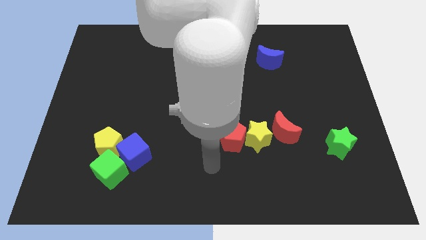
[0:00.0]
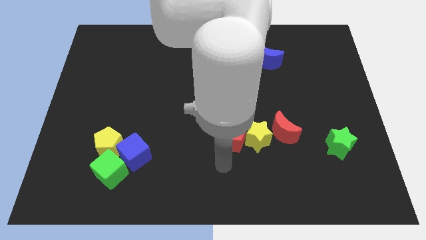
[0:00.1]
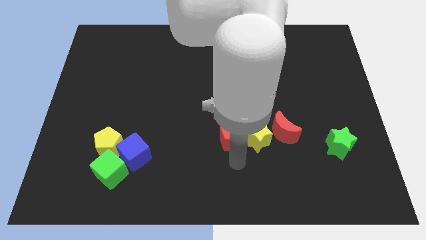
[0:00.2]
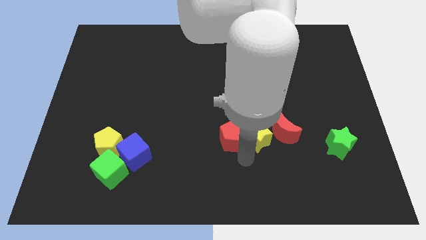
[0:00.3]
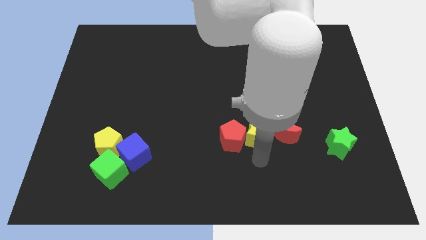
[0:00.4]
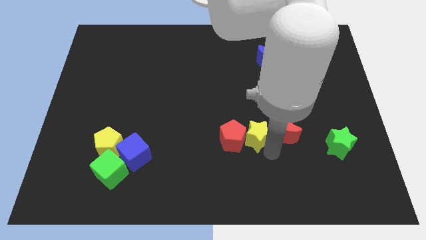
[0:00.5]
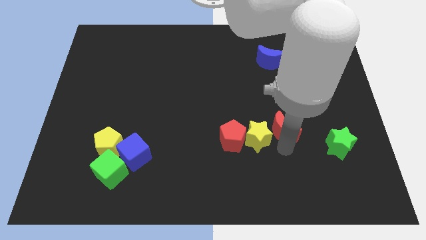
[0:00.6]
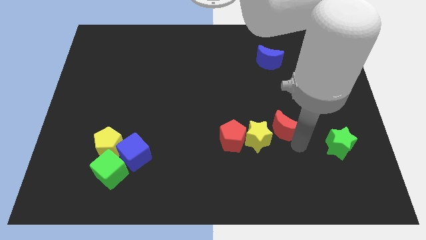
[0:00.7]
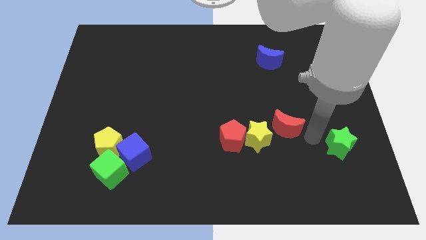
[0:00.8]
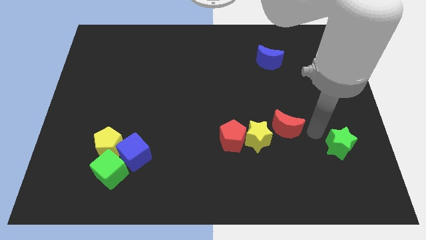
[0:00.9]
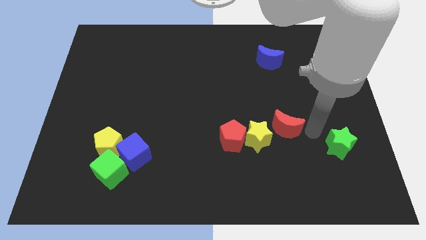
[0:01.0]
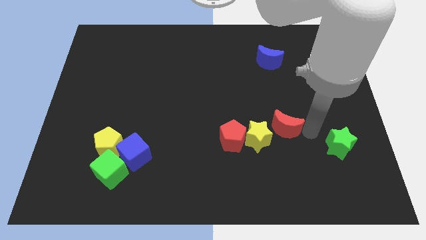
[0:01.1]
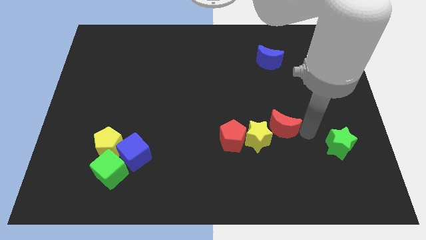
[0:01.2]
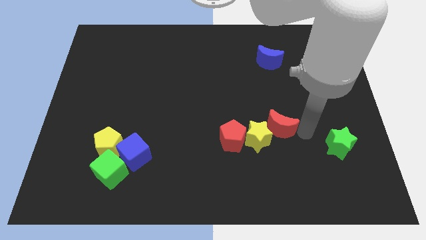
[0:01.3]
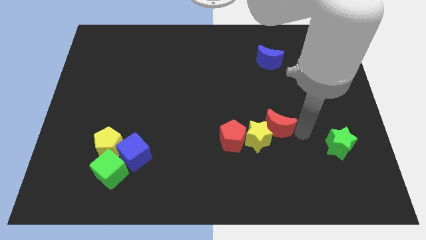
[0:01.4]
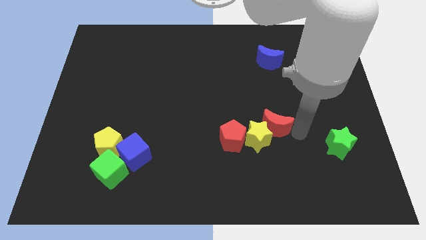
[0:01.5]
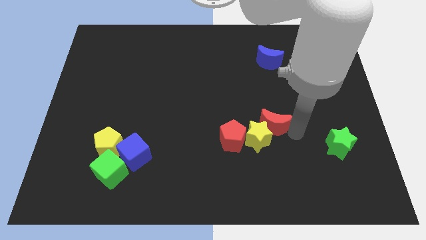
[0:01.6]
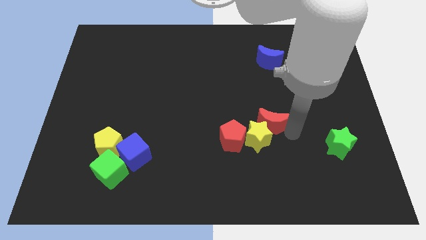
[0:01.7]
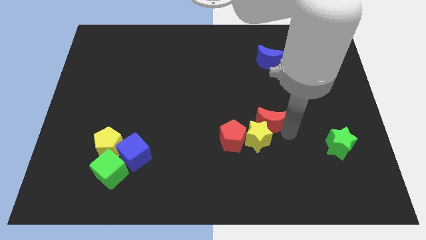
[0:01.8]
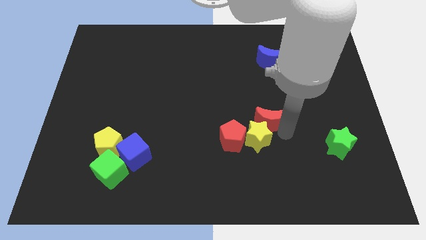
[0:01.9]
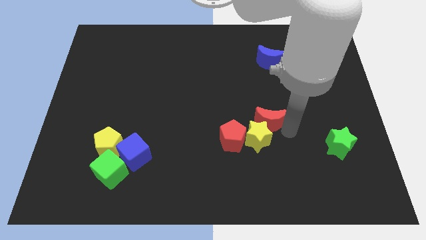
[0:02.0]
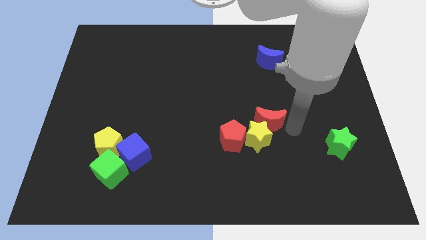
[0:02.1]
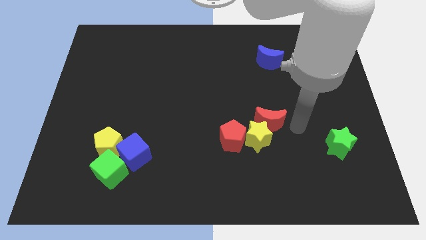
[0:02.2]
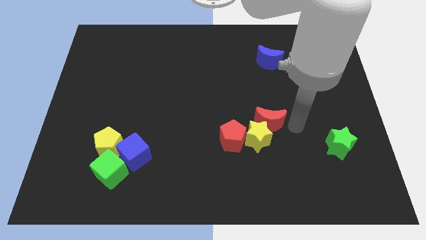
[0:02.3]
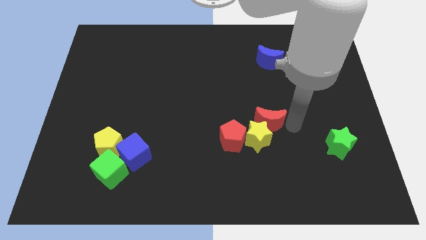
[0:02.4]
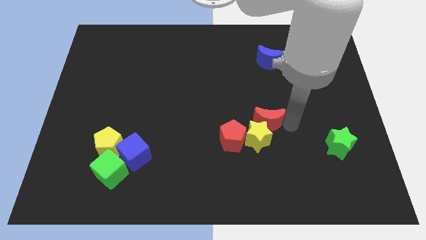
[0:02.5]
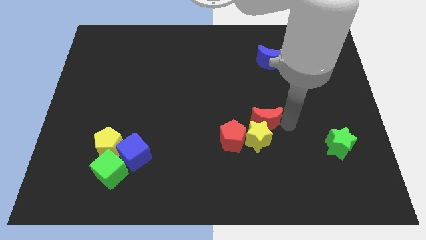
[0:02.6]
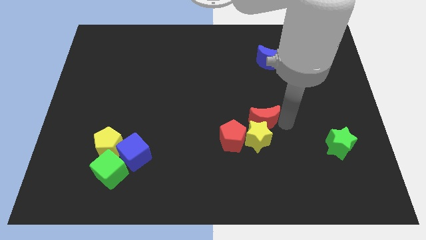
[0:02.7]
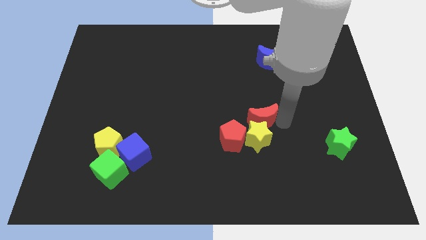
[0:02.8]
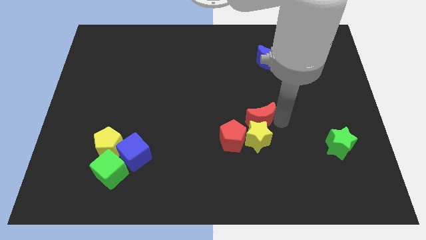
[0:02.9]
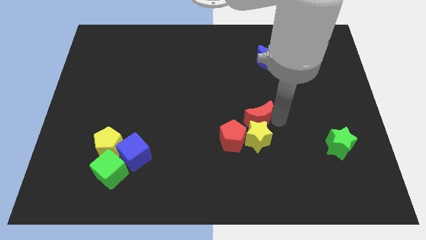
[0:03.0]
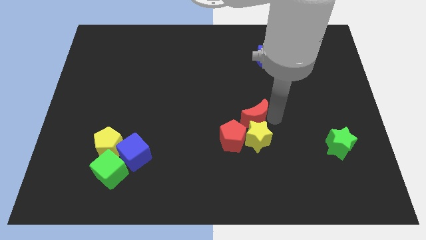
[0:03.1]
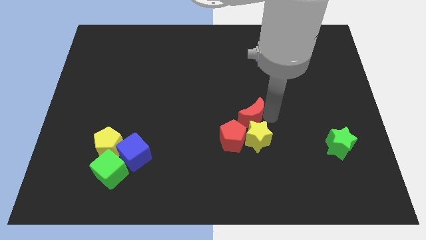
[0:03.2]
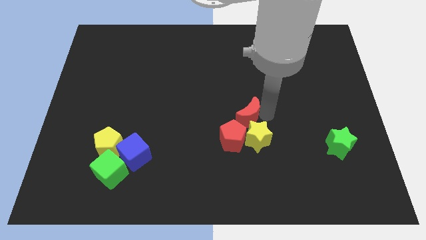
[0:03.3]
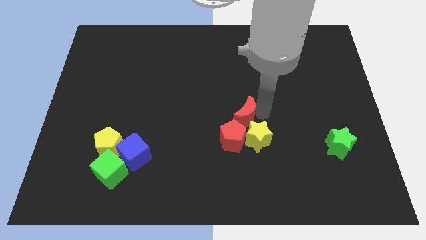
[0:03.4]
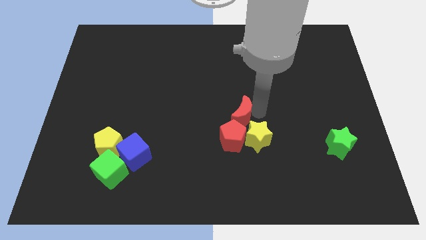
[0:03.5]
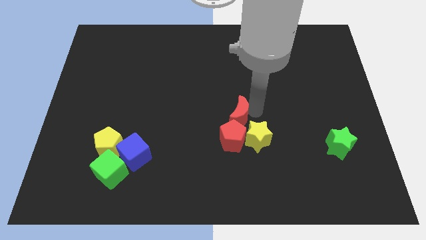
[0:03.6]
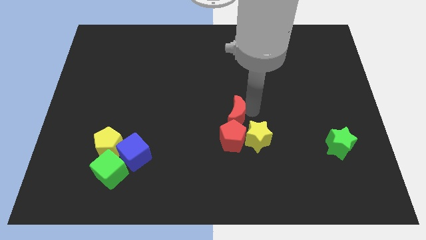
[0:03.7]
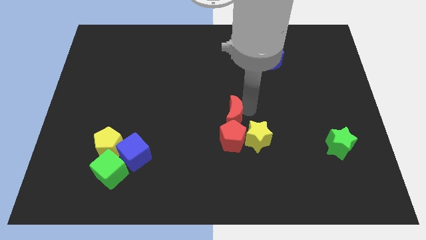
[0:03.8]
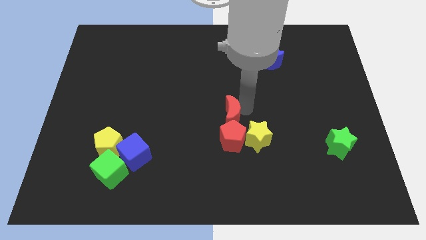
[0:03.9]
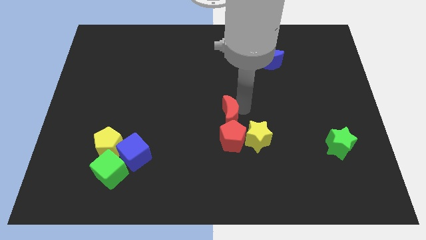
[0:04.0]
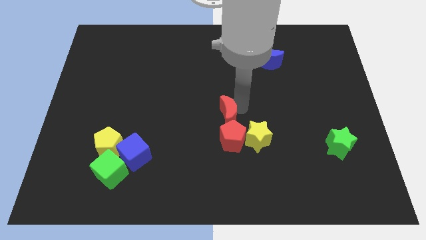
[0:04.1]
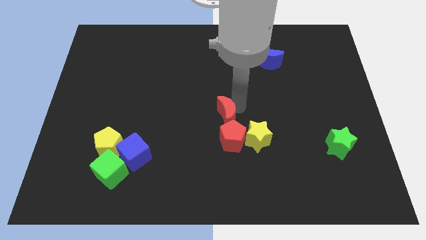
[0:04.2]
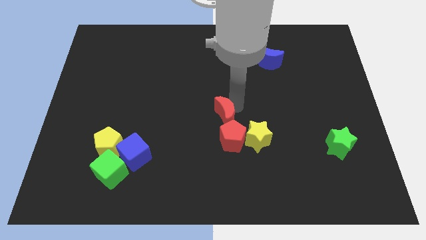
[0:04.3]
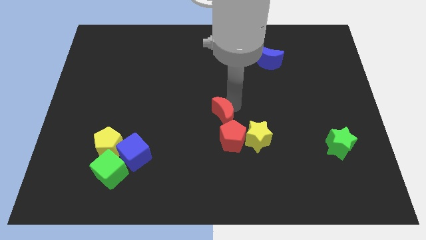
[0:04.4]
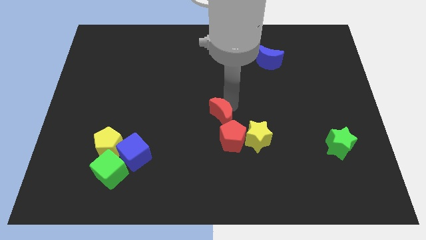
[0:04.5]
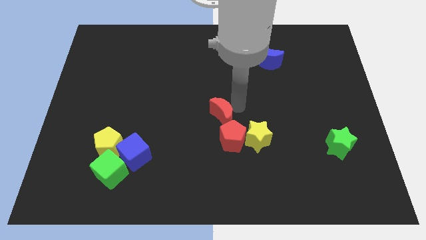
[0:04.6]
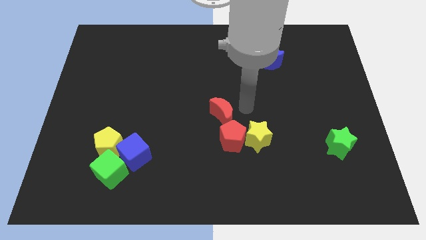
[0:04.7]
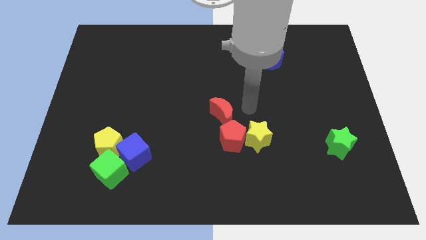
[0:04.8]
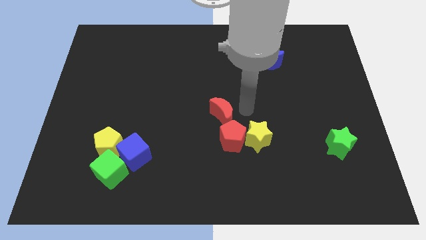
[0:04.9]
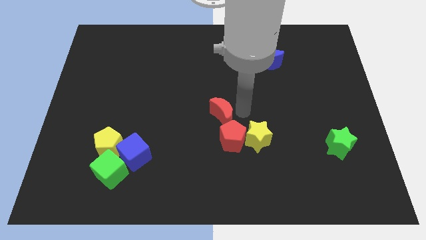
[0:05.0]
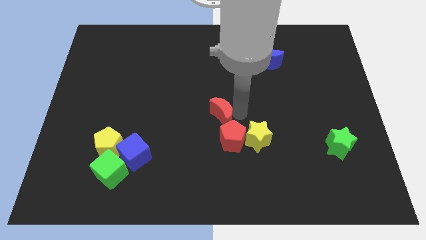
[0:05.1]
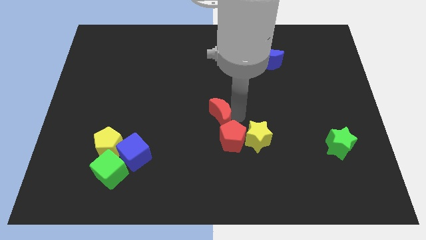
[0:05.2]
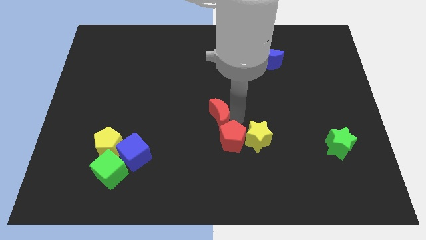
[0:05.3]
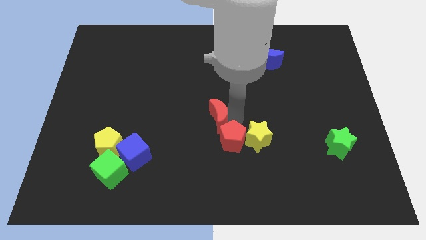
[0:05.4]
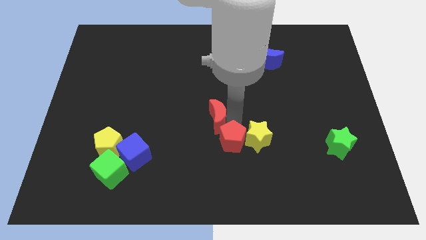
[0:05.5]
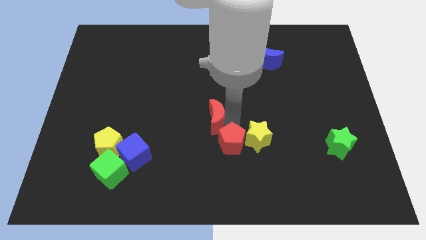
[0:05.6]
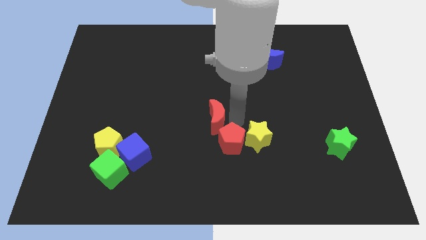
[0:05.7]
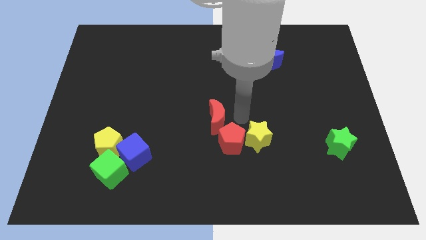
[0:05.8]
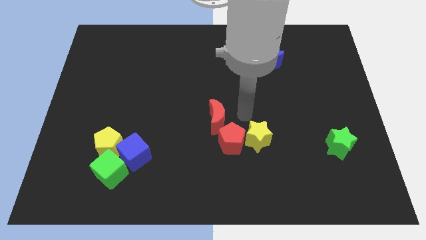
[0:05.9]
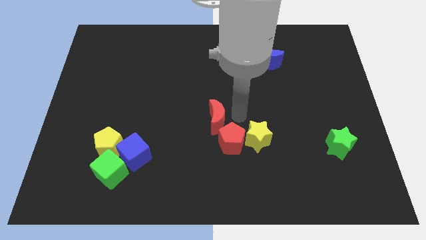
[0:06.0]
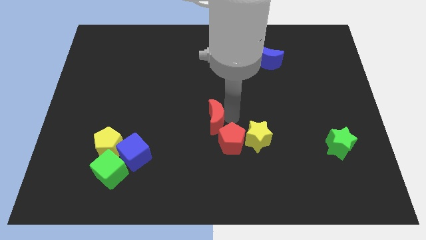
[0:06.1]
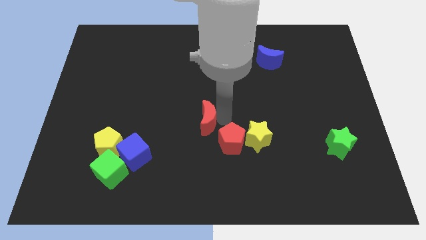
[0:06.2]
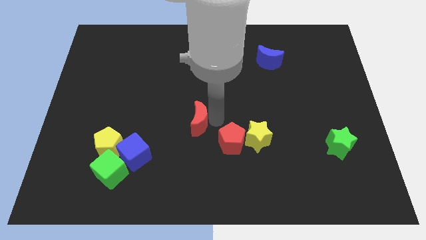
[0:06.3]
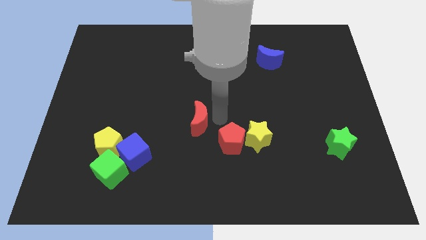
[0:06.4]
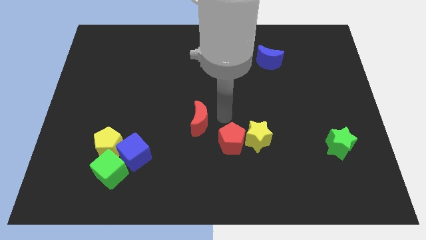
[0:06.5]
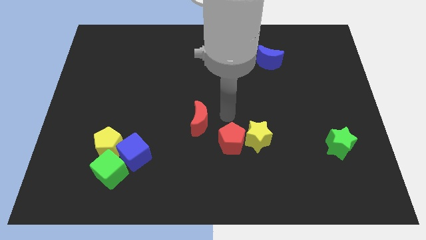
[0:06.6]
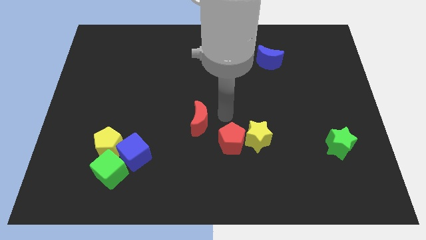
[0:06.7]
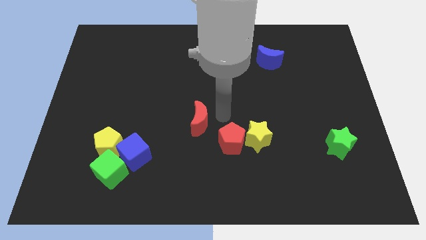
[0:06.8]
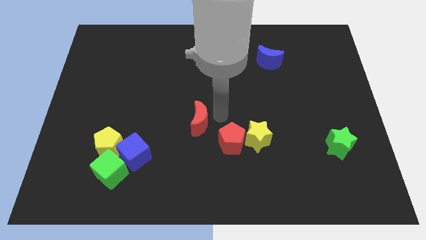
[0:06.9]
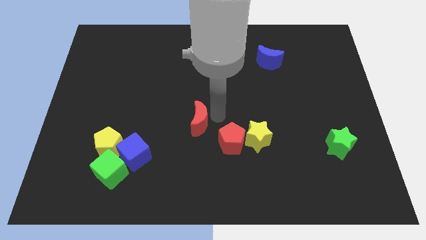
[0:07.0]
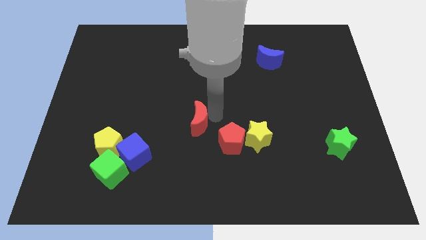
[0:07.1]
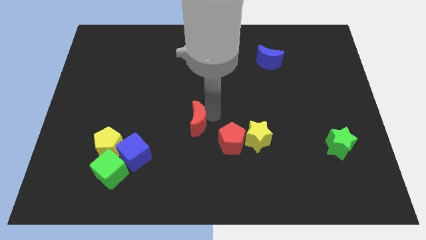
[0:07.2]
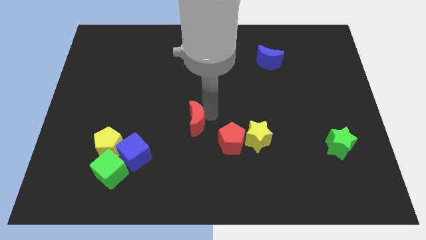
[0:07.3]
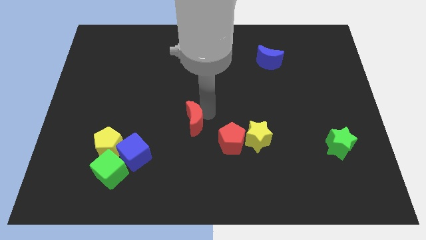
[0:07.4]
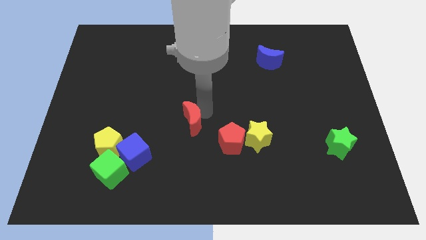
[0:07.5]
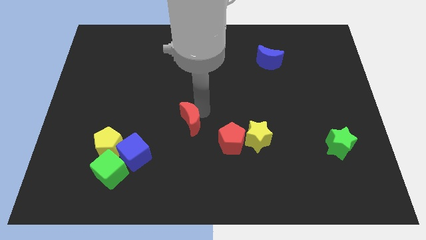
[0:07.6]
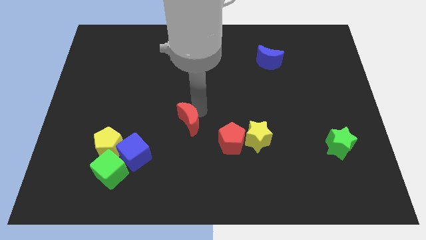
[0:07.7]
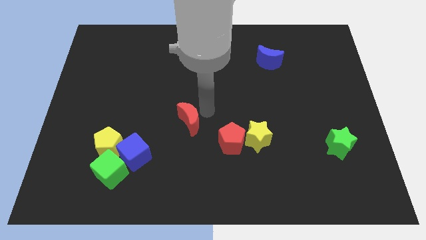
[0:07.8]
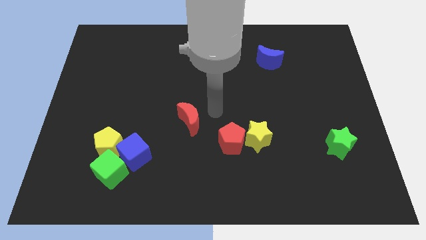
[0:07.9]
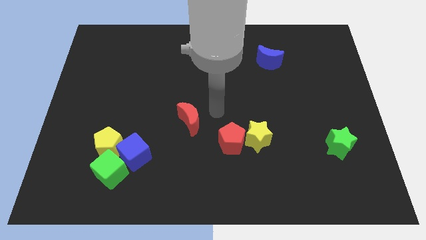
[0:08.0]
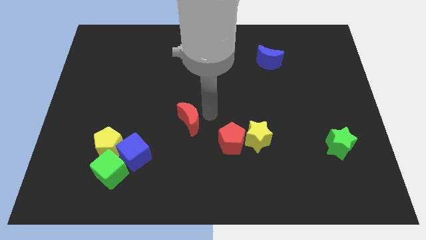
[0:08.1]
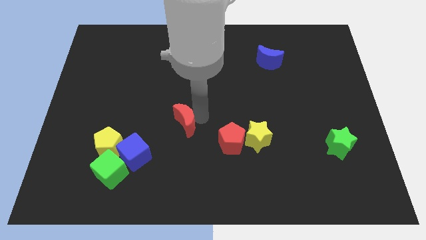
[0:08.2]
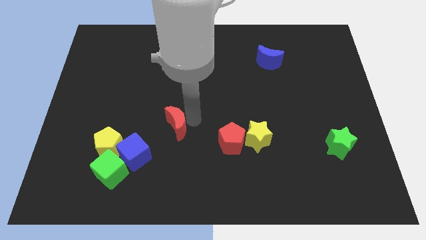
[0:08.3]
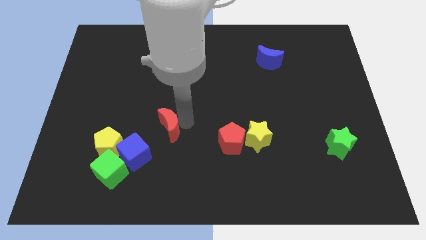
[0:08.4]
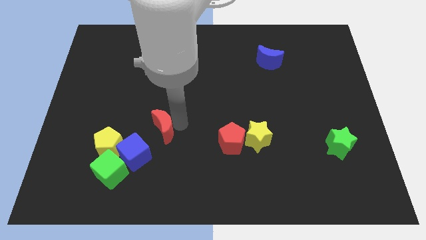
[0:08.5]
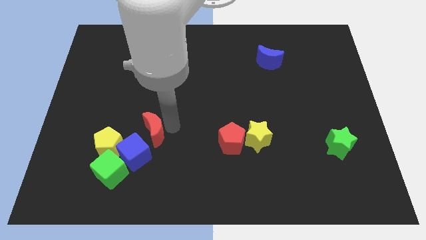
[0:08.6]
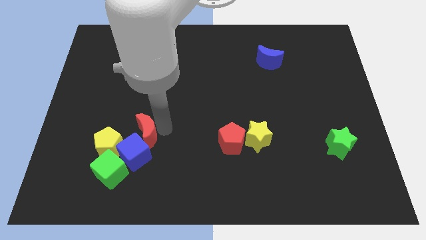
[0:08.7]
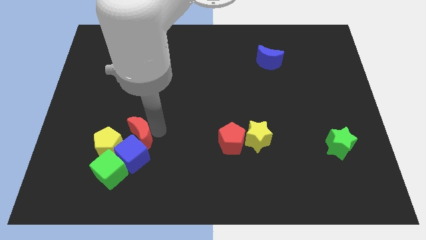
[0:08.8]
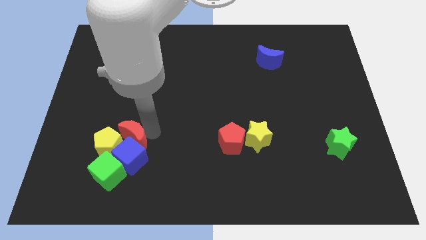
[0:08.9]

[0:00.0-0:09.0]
move the red moon close to the yellow pentagon
